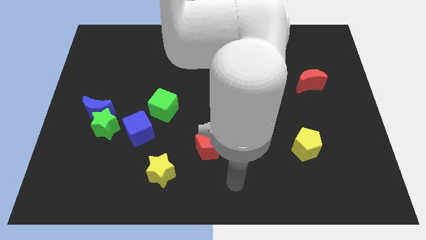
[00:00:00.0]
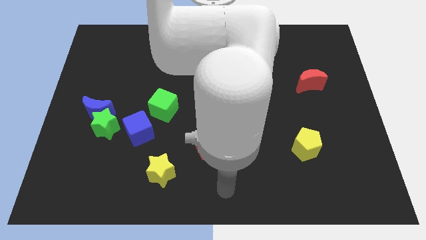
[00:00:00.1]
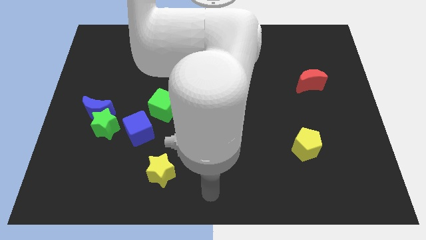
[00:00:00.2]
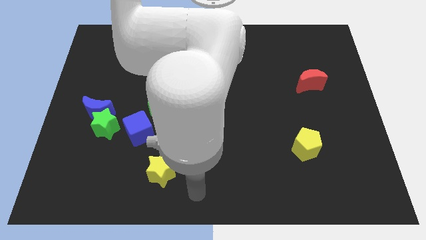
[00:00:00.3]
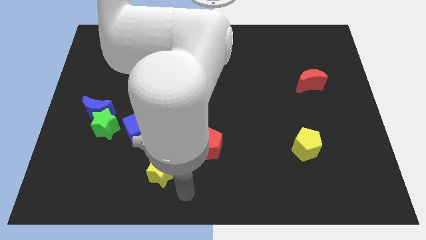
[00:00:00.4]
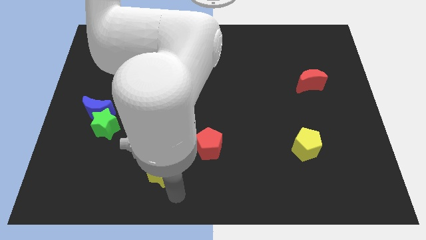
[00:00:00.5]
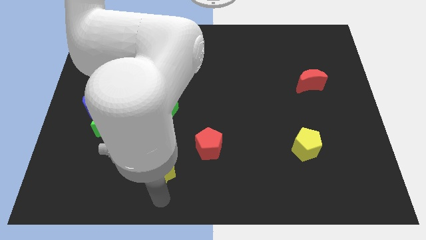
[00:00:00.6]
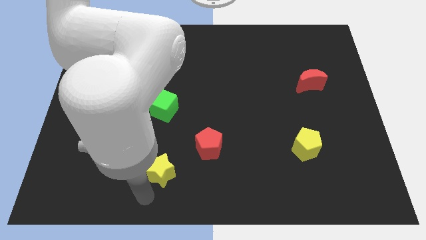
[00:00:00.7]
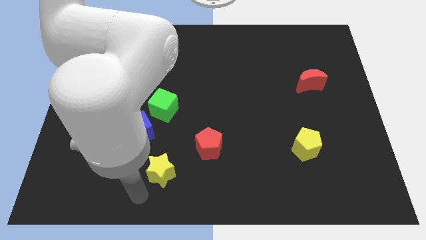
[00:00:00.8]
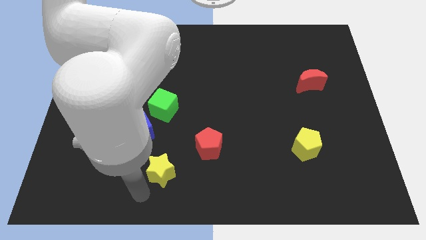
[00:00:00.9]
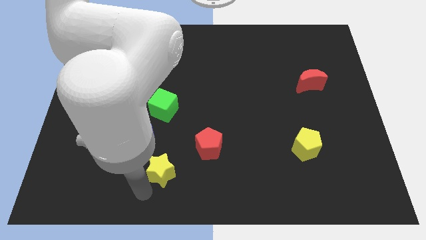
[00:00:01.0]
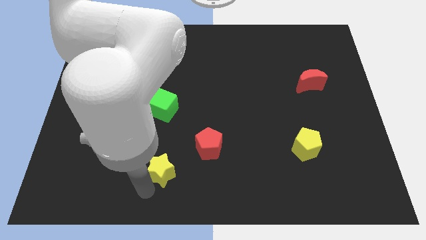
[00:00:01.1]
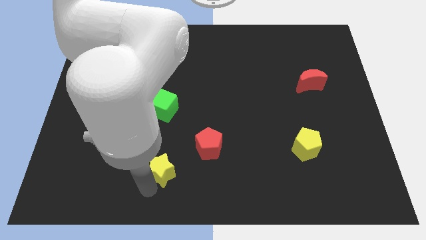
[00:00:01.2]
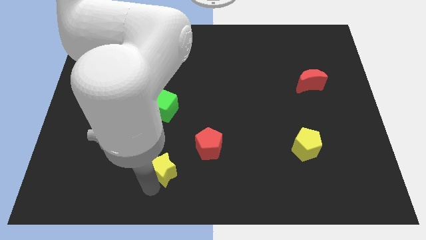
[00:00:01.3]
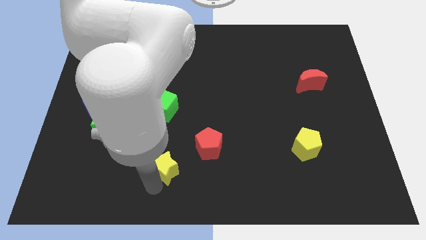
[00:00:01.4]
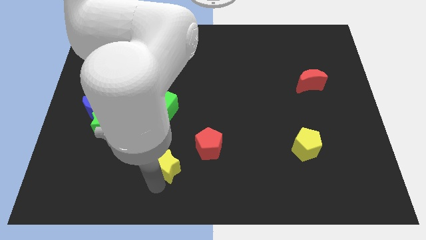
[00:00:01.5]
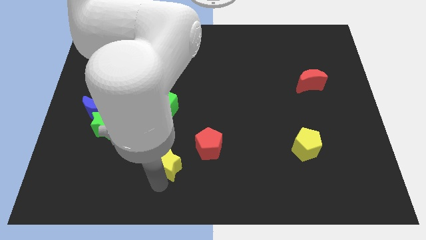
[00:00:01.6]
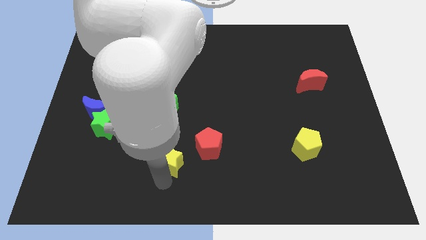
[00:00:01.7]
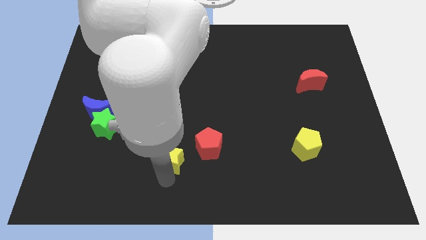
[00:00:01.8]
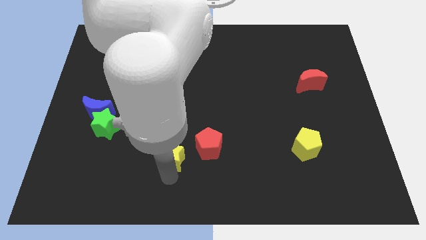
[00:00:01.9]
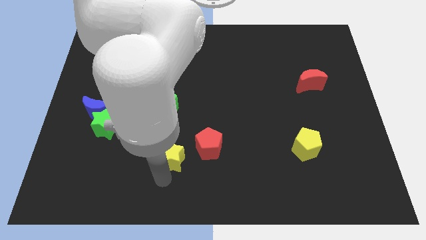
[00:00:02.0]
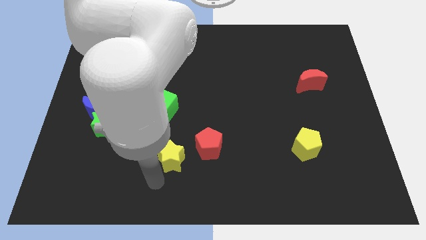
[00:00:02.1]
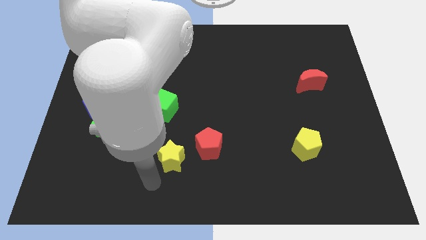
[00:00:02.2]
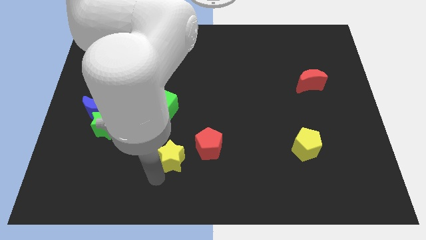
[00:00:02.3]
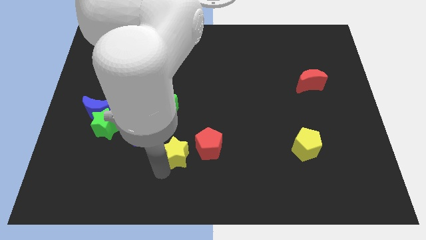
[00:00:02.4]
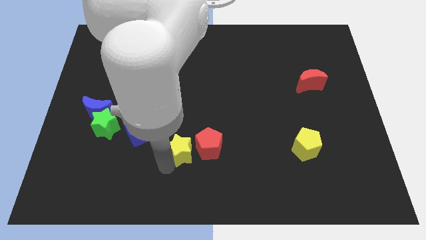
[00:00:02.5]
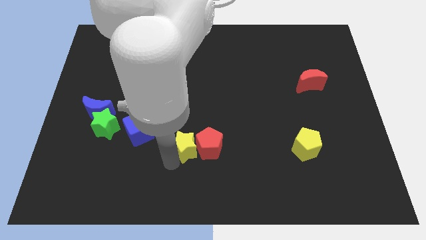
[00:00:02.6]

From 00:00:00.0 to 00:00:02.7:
slide the yellow star a little bit up and right diagonally

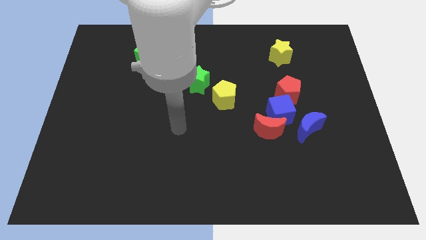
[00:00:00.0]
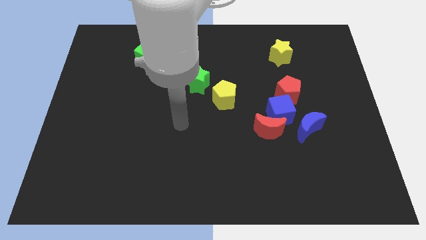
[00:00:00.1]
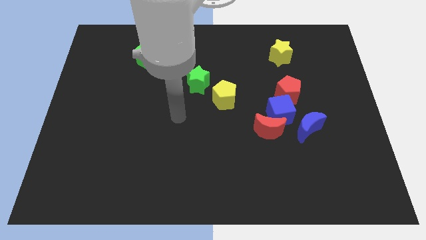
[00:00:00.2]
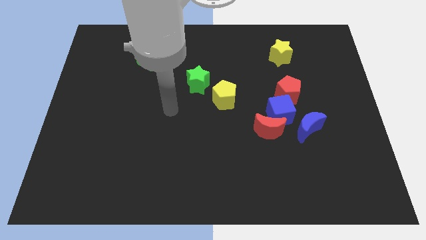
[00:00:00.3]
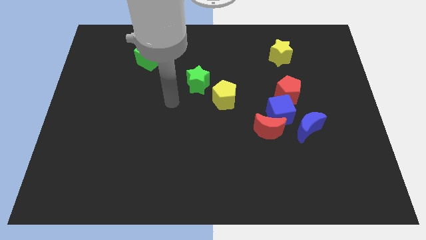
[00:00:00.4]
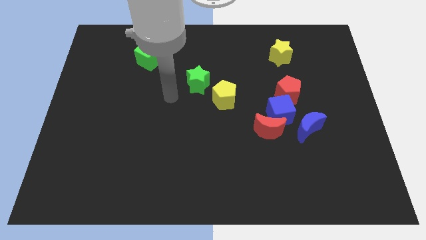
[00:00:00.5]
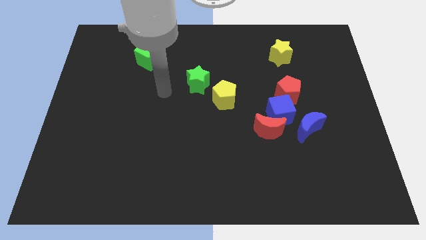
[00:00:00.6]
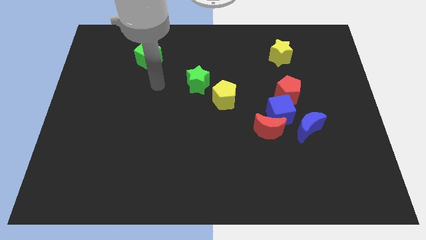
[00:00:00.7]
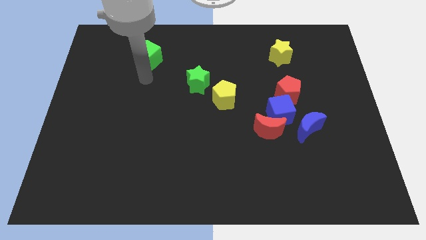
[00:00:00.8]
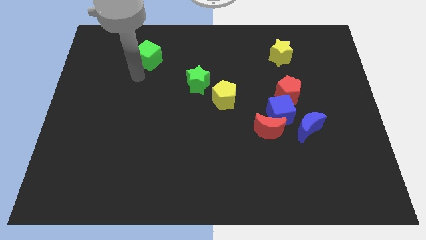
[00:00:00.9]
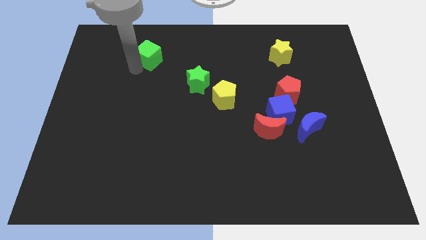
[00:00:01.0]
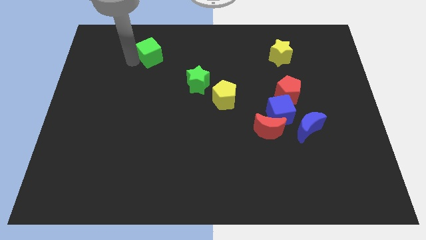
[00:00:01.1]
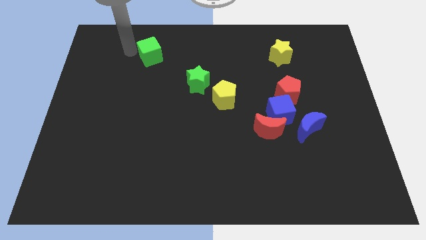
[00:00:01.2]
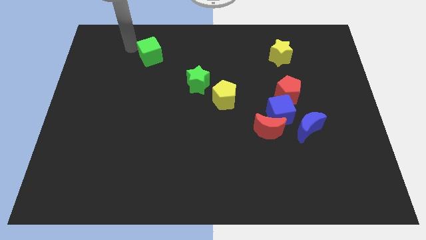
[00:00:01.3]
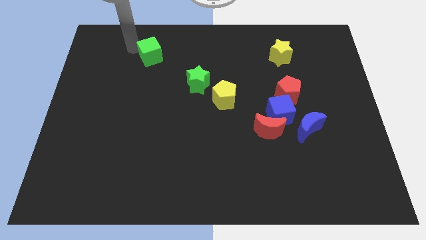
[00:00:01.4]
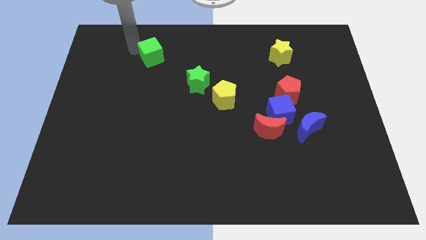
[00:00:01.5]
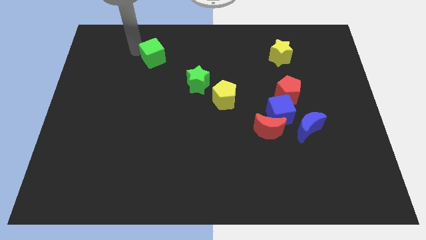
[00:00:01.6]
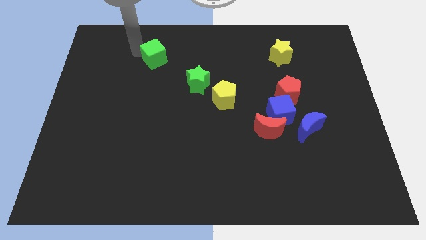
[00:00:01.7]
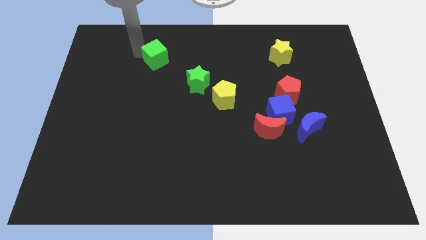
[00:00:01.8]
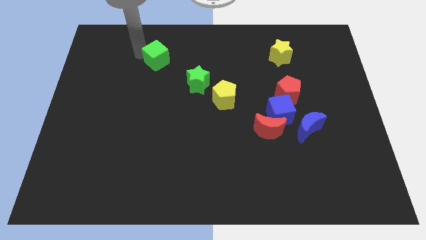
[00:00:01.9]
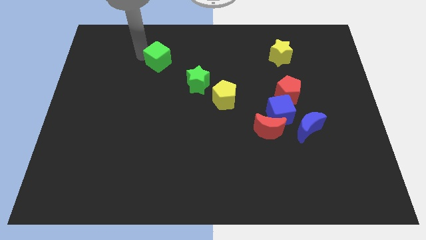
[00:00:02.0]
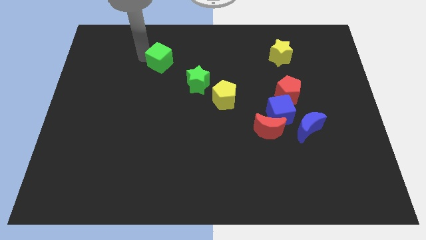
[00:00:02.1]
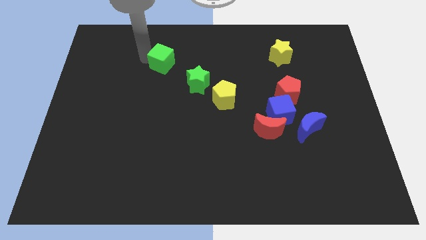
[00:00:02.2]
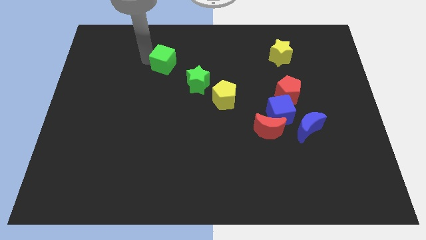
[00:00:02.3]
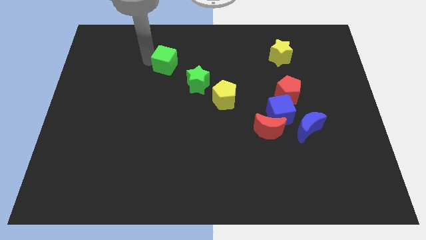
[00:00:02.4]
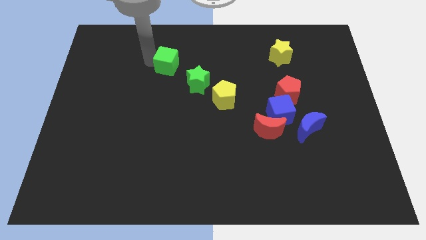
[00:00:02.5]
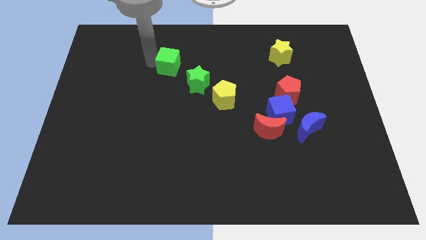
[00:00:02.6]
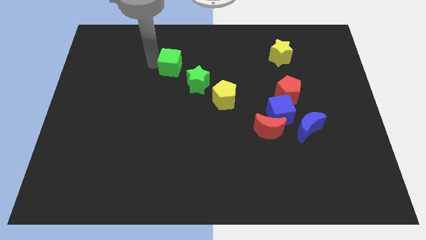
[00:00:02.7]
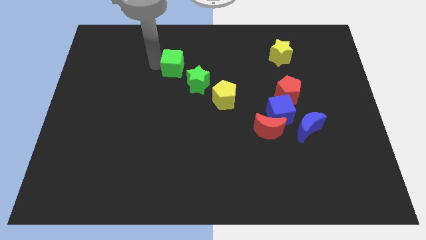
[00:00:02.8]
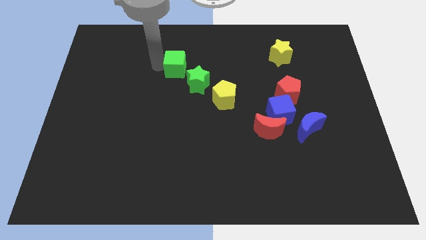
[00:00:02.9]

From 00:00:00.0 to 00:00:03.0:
slightly push the green cube right

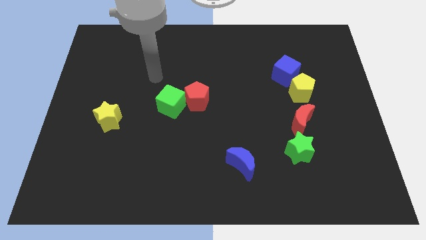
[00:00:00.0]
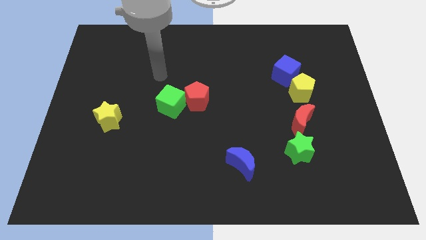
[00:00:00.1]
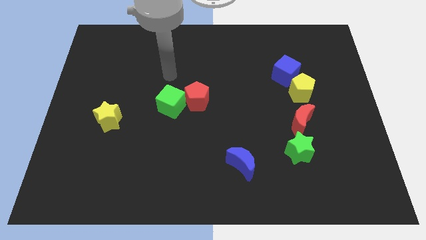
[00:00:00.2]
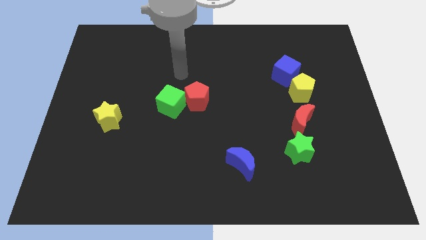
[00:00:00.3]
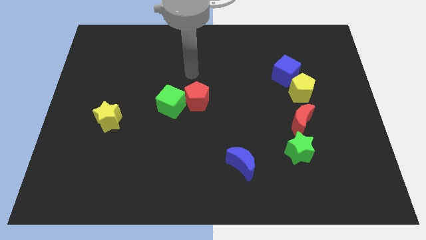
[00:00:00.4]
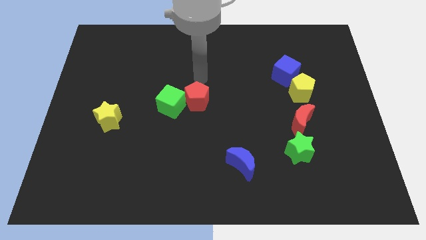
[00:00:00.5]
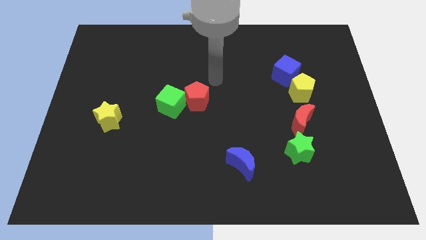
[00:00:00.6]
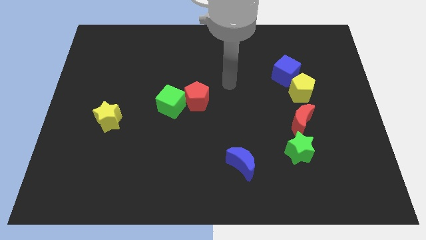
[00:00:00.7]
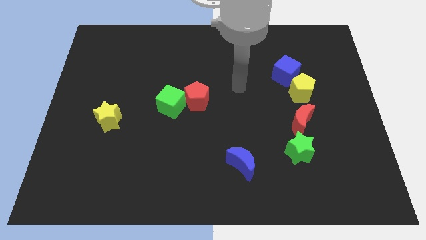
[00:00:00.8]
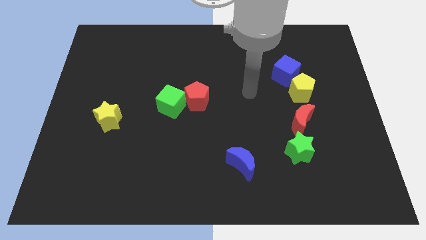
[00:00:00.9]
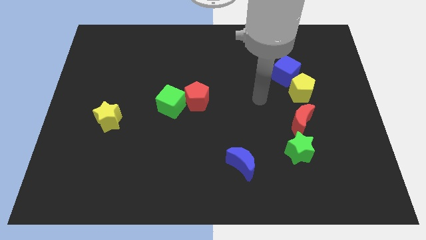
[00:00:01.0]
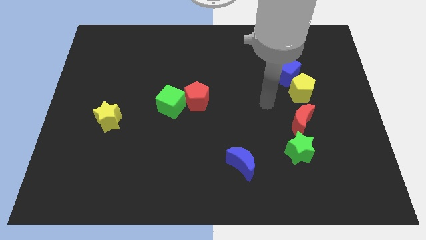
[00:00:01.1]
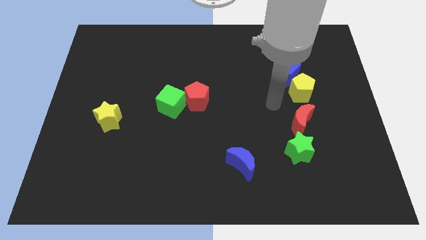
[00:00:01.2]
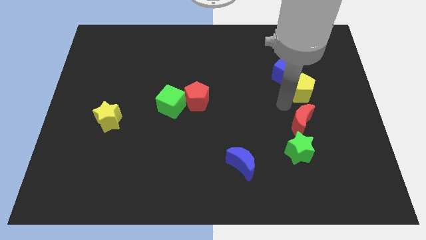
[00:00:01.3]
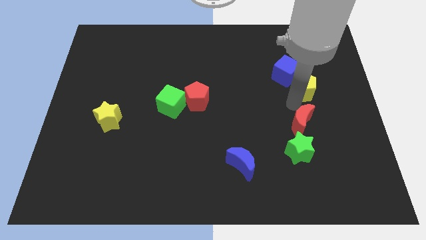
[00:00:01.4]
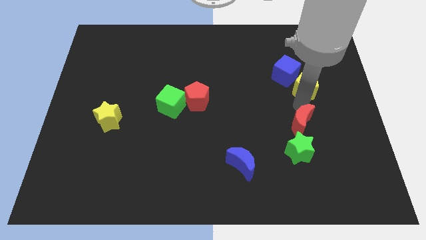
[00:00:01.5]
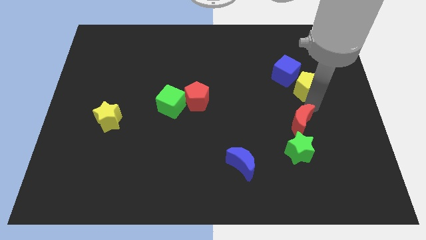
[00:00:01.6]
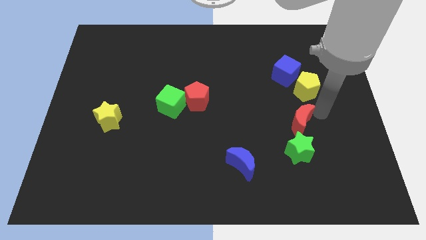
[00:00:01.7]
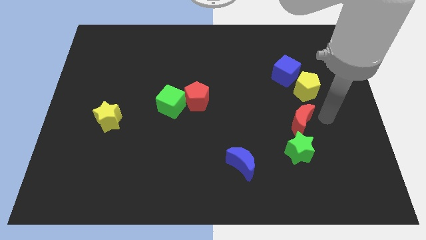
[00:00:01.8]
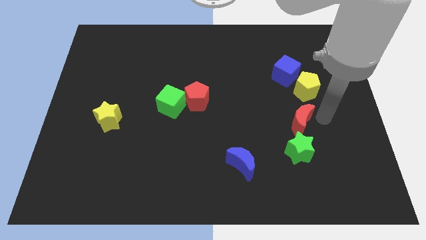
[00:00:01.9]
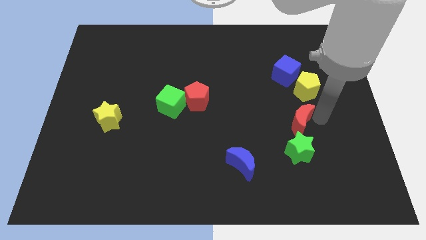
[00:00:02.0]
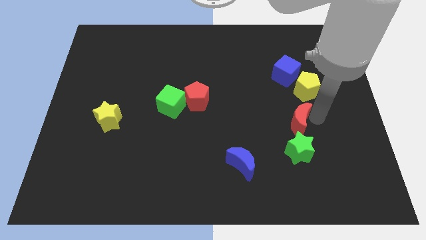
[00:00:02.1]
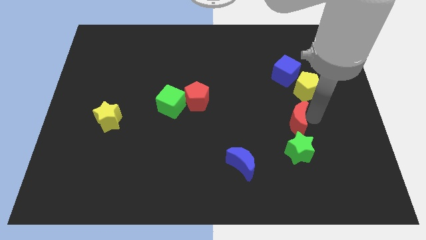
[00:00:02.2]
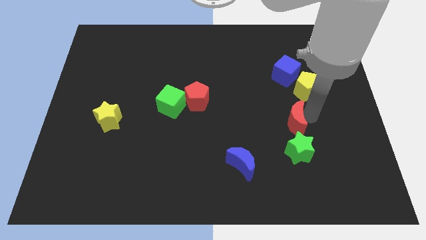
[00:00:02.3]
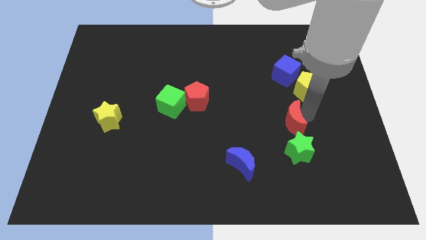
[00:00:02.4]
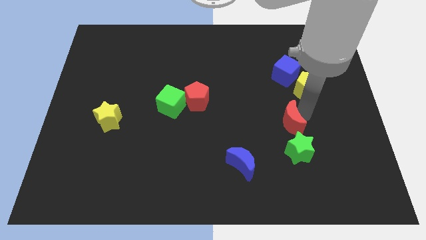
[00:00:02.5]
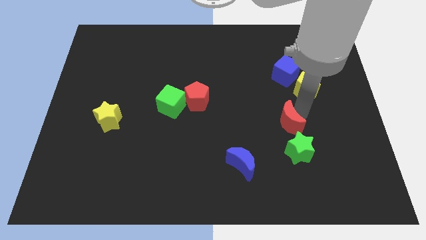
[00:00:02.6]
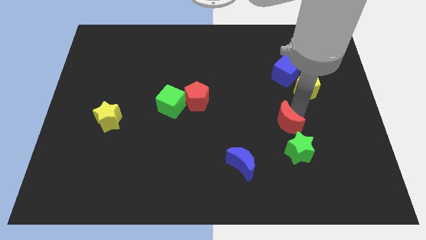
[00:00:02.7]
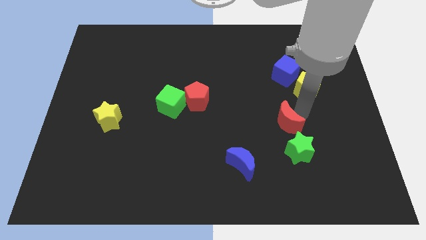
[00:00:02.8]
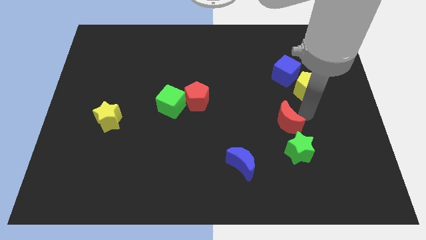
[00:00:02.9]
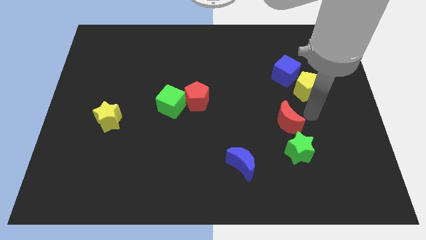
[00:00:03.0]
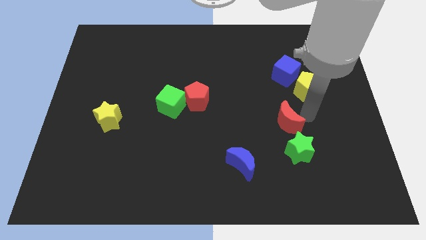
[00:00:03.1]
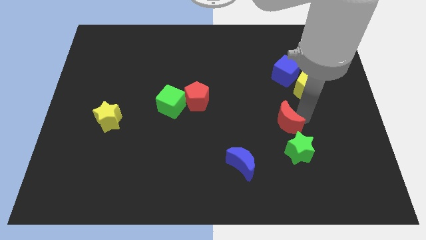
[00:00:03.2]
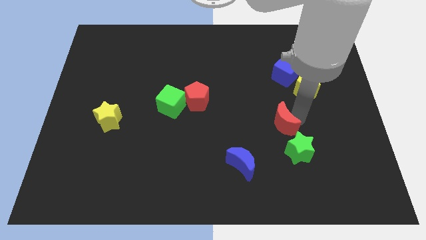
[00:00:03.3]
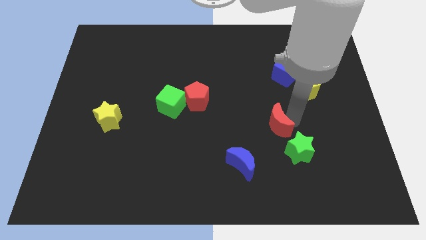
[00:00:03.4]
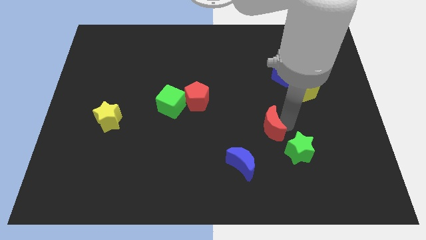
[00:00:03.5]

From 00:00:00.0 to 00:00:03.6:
slightly push the red moon to the left
